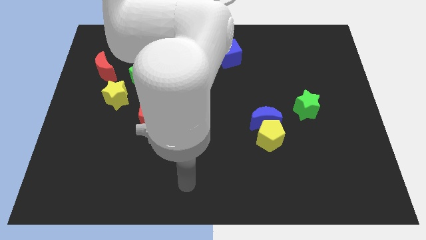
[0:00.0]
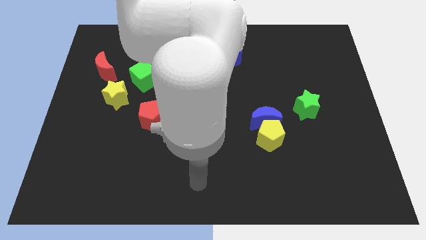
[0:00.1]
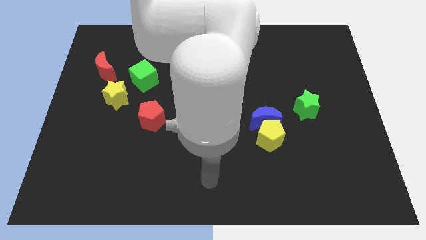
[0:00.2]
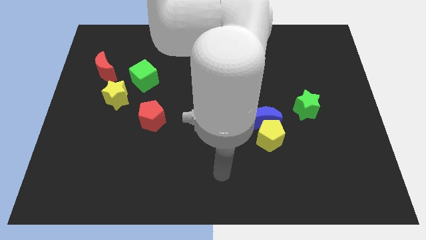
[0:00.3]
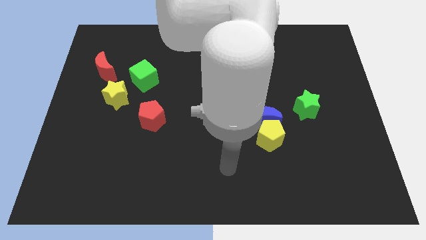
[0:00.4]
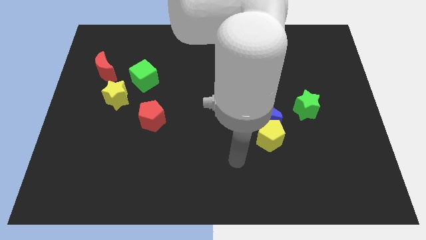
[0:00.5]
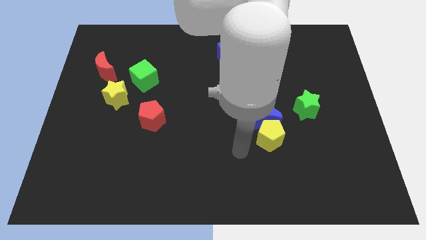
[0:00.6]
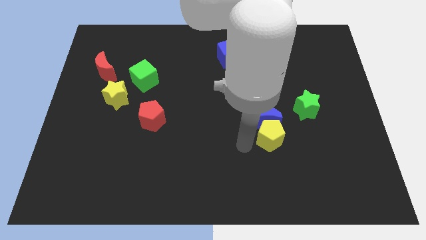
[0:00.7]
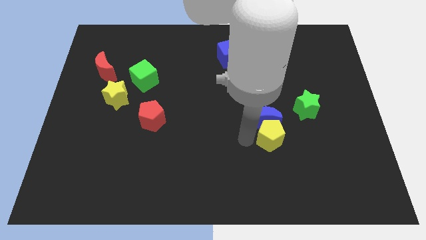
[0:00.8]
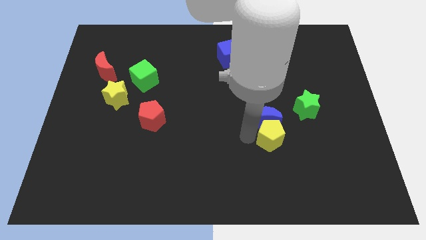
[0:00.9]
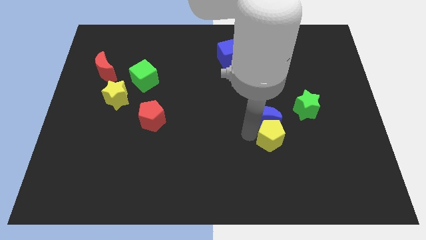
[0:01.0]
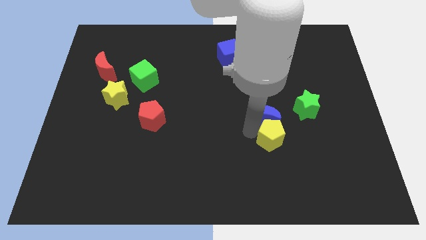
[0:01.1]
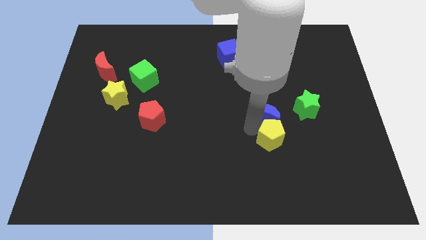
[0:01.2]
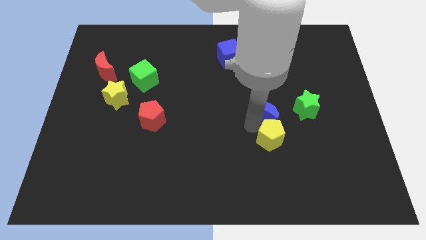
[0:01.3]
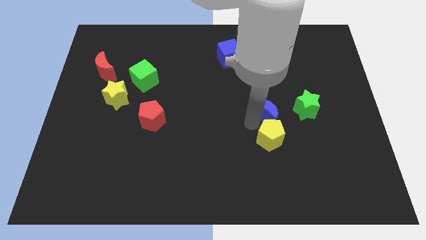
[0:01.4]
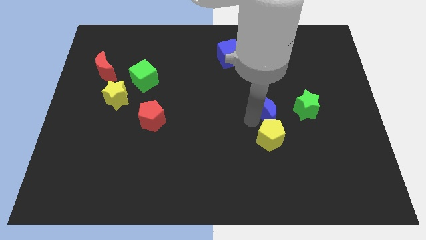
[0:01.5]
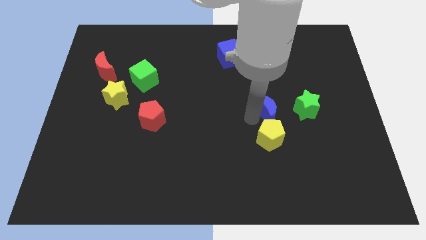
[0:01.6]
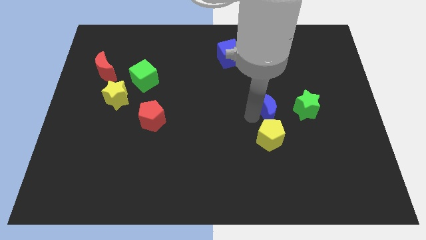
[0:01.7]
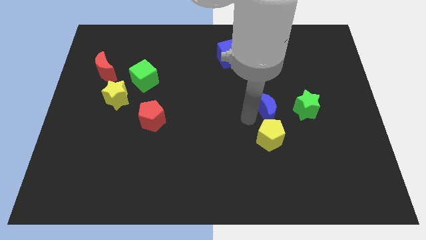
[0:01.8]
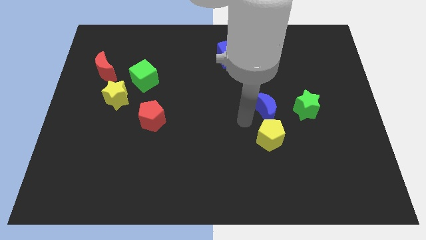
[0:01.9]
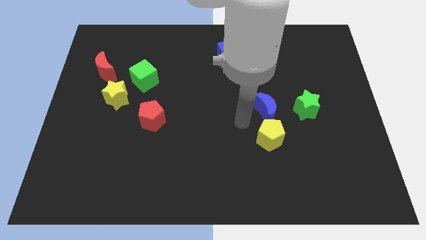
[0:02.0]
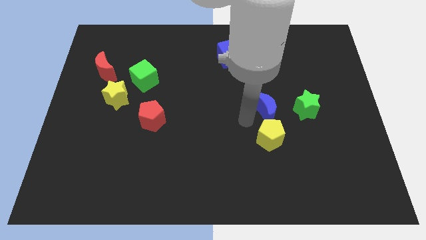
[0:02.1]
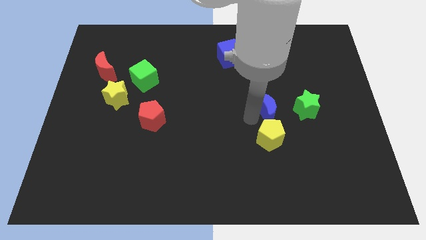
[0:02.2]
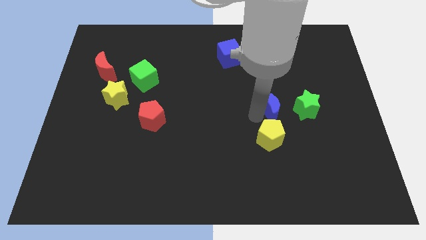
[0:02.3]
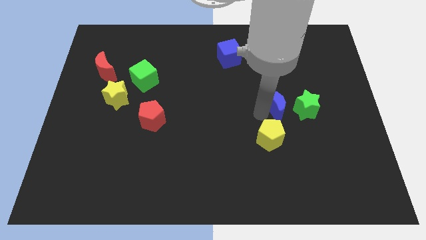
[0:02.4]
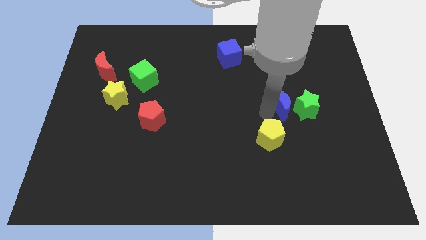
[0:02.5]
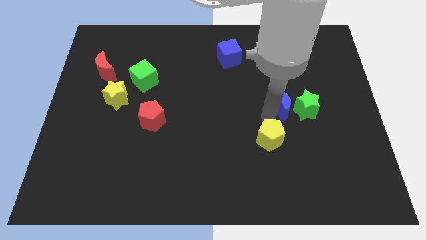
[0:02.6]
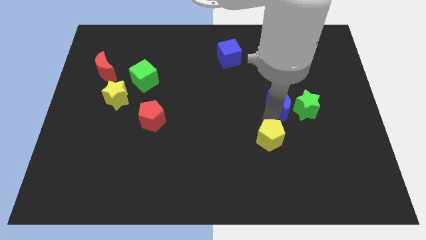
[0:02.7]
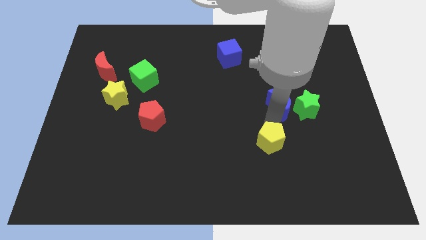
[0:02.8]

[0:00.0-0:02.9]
pull the blue moon apart from the yellow pentagon

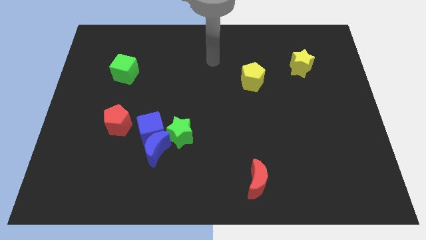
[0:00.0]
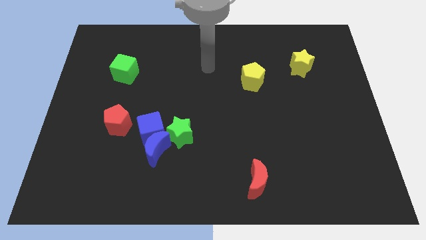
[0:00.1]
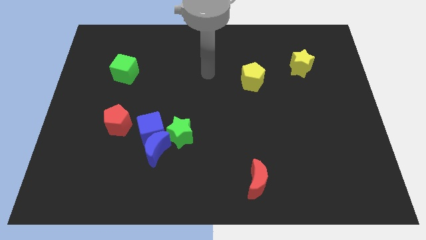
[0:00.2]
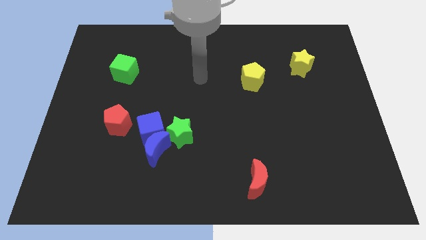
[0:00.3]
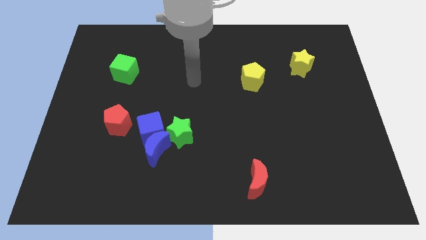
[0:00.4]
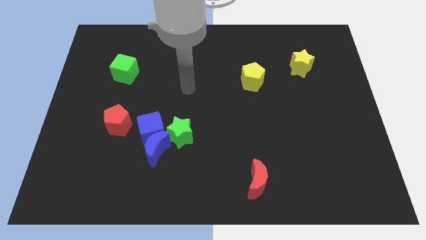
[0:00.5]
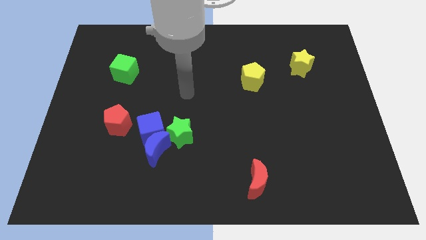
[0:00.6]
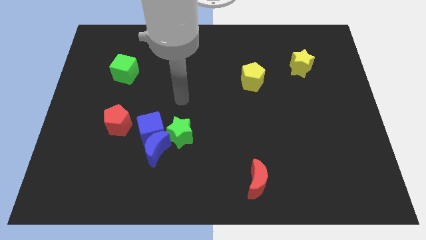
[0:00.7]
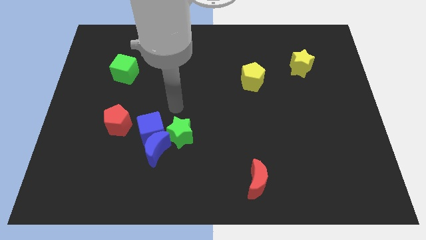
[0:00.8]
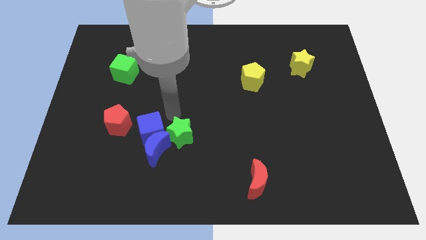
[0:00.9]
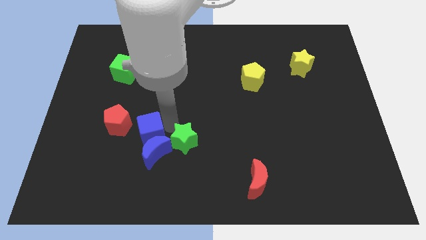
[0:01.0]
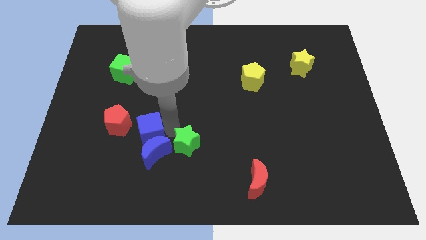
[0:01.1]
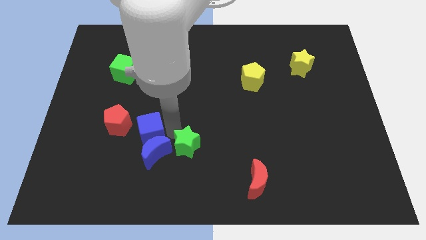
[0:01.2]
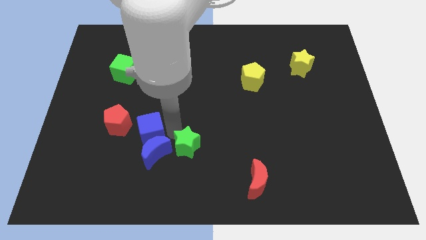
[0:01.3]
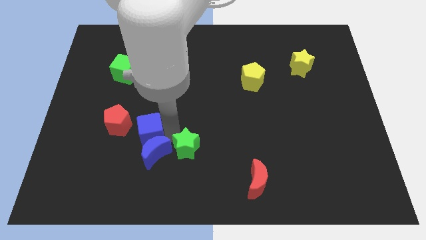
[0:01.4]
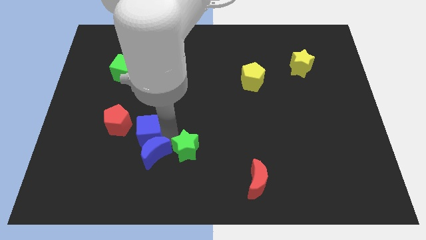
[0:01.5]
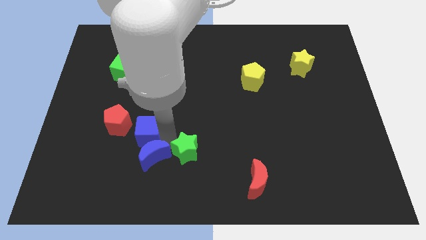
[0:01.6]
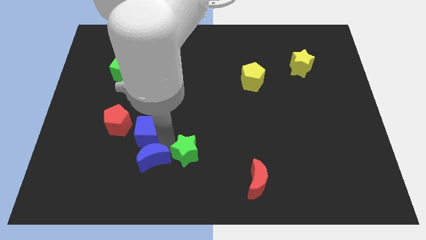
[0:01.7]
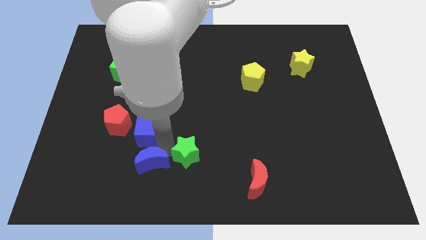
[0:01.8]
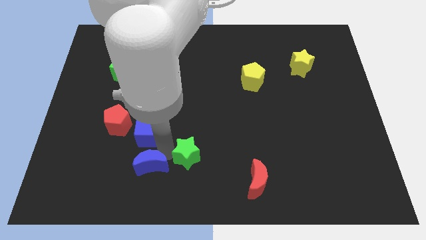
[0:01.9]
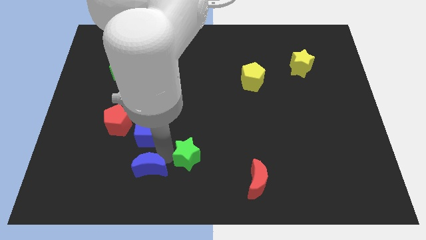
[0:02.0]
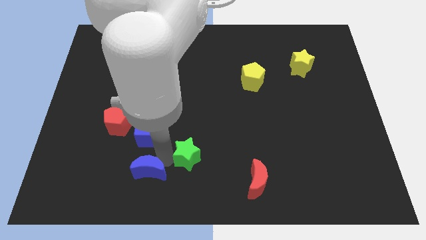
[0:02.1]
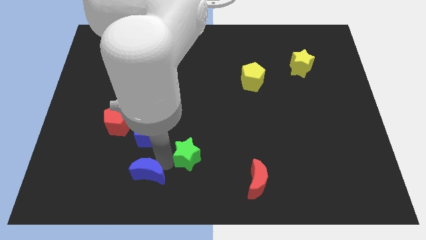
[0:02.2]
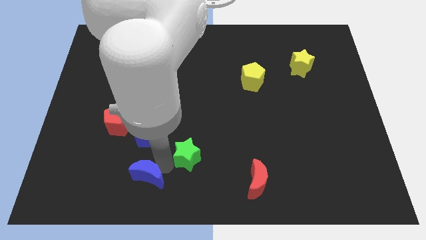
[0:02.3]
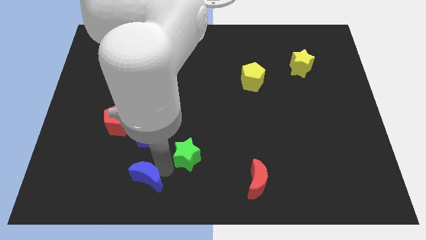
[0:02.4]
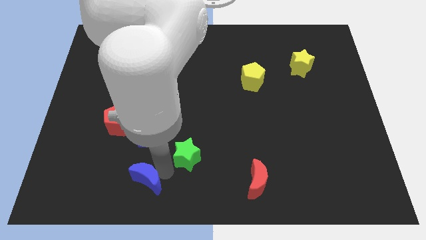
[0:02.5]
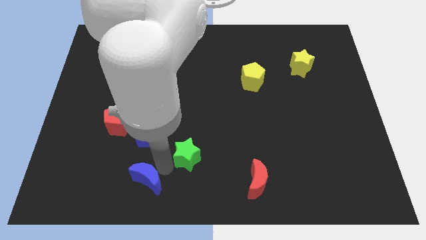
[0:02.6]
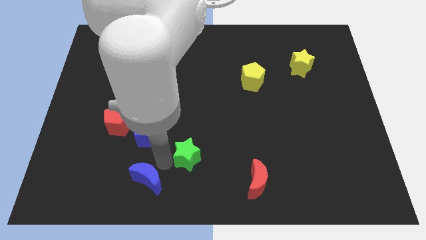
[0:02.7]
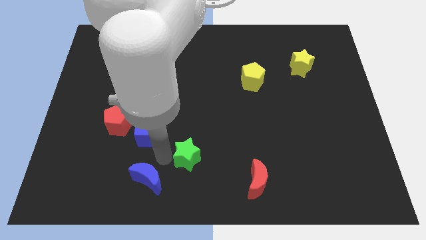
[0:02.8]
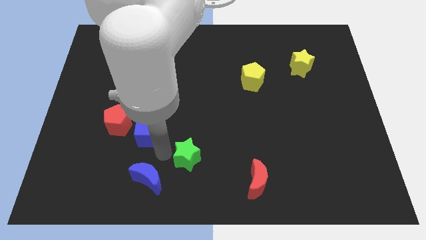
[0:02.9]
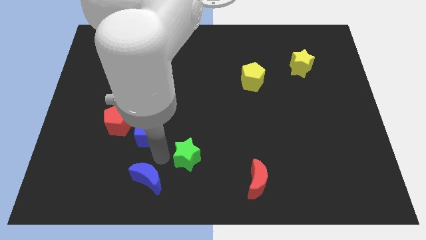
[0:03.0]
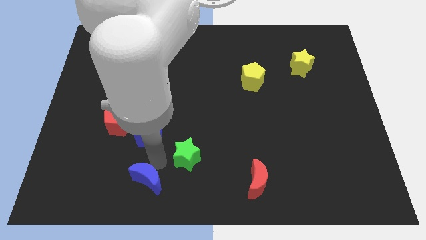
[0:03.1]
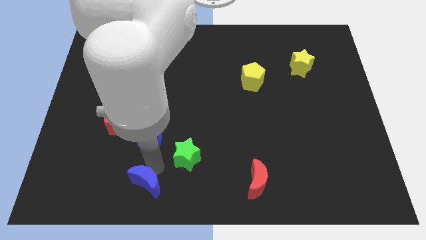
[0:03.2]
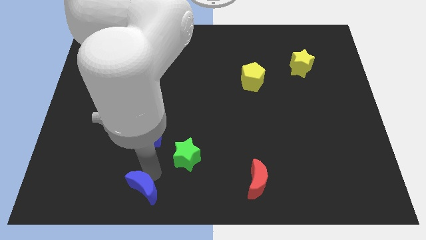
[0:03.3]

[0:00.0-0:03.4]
separate the blue moon from the blue cube and green star

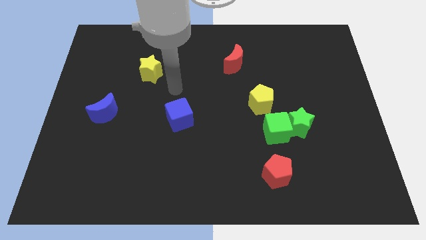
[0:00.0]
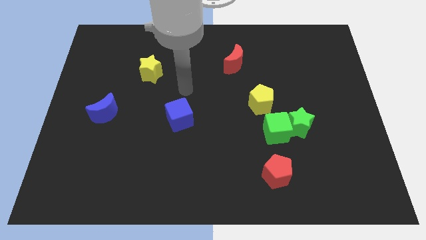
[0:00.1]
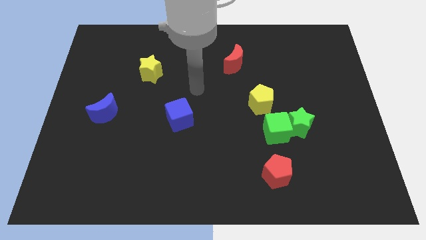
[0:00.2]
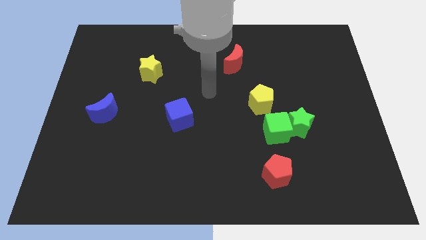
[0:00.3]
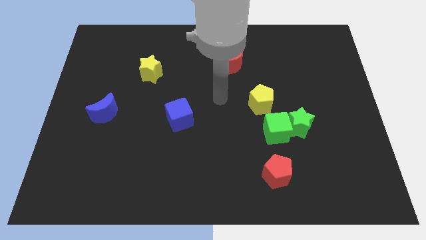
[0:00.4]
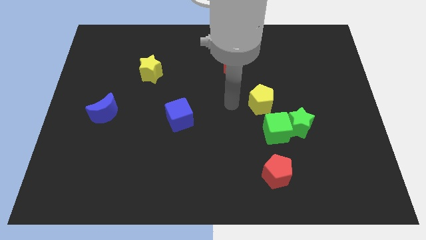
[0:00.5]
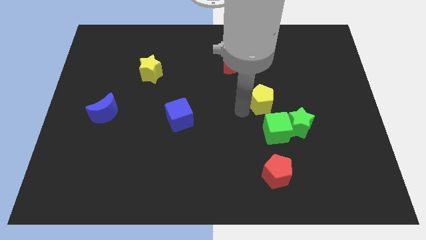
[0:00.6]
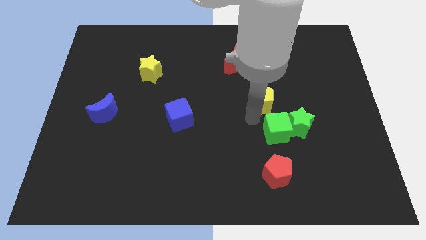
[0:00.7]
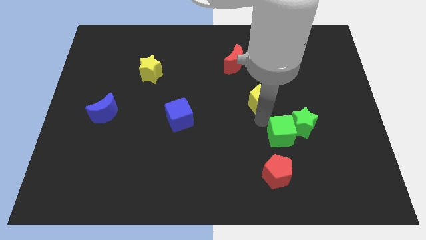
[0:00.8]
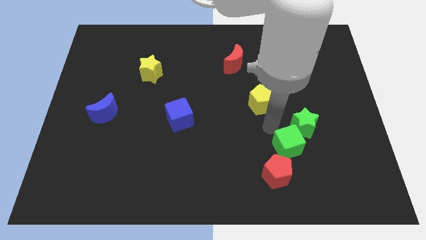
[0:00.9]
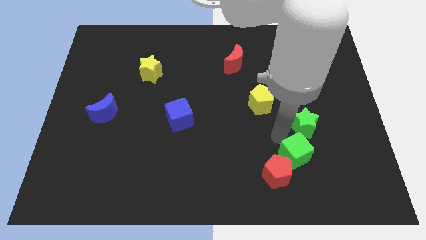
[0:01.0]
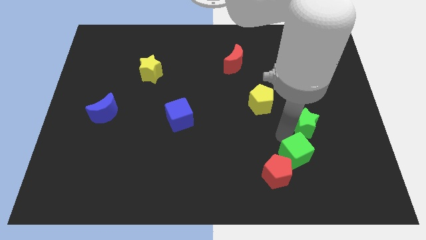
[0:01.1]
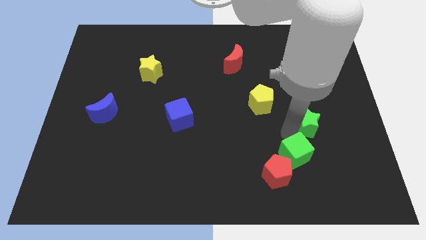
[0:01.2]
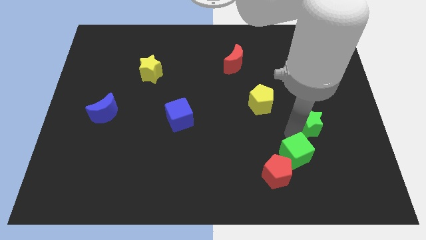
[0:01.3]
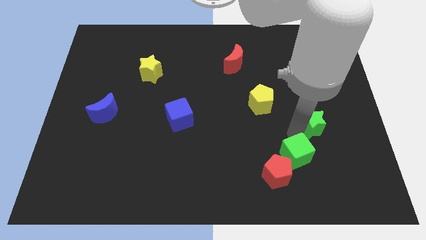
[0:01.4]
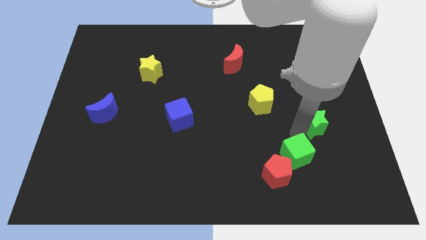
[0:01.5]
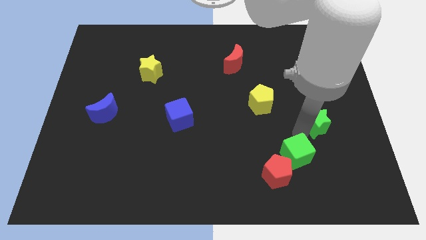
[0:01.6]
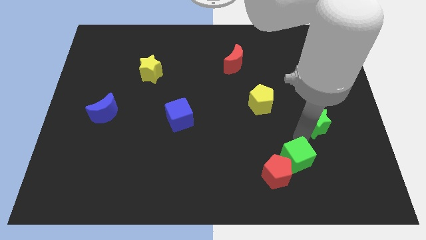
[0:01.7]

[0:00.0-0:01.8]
separate the green star from the green cube

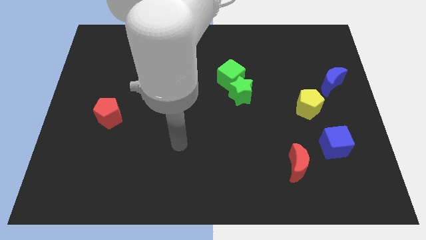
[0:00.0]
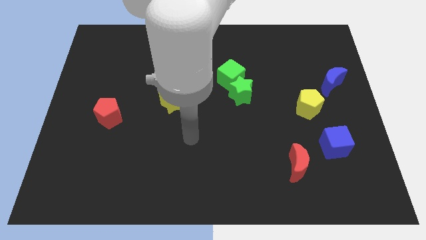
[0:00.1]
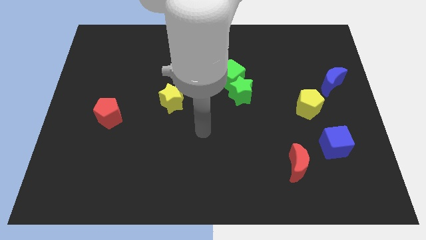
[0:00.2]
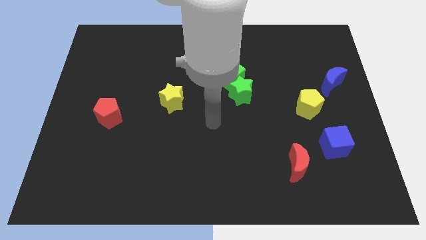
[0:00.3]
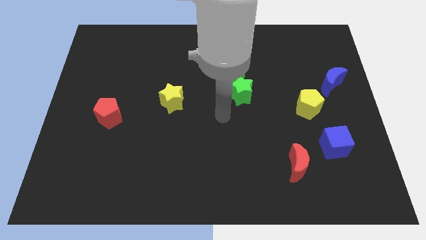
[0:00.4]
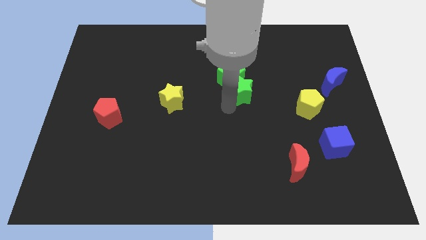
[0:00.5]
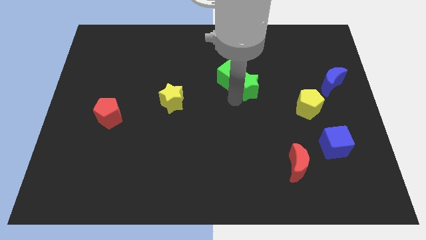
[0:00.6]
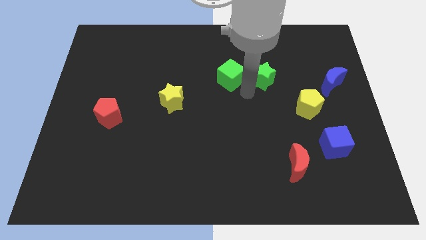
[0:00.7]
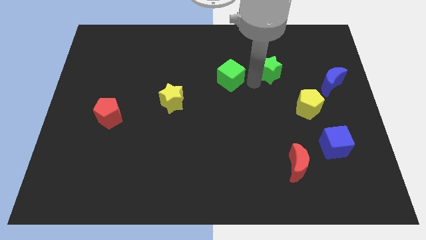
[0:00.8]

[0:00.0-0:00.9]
move the green cube away from the green star

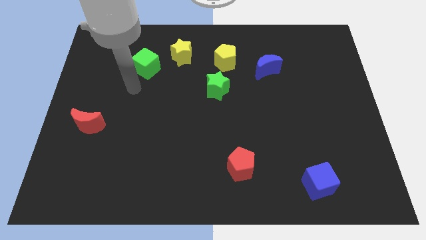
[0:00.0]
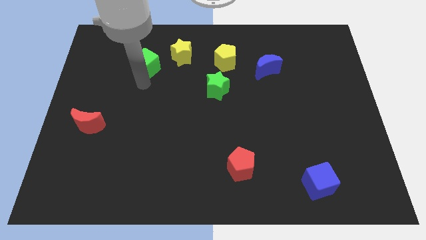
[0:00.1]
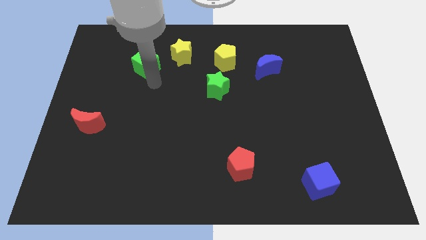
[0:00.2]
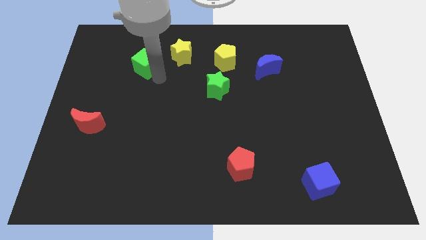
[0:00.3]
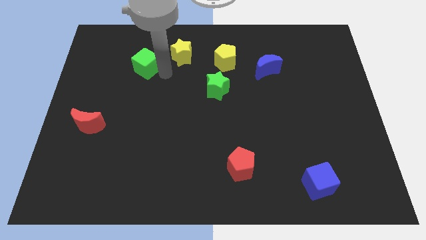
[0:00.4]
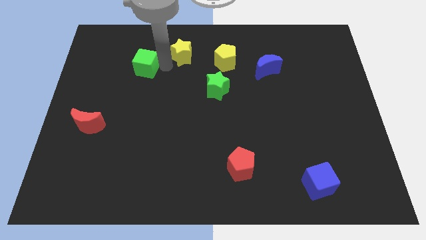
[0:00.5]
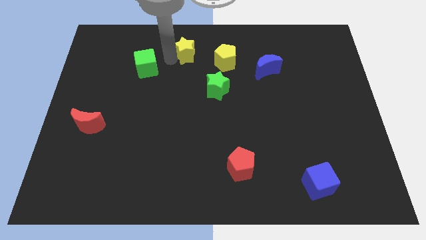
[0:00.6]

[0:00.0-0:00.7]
pull the green cube apart from the yellow star
